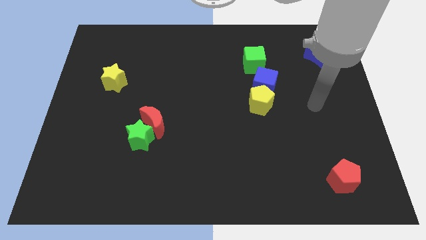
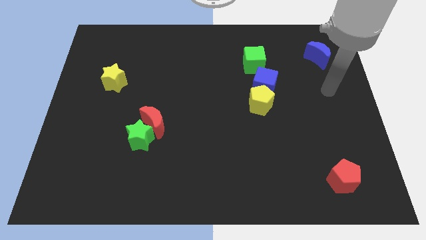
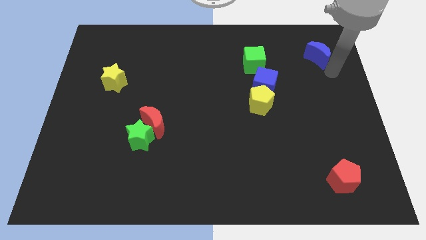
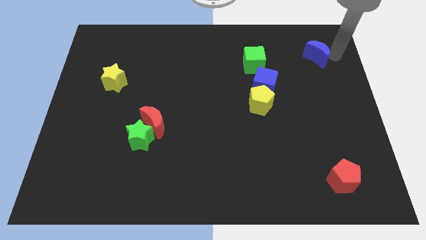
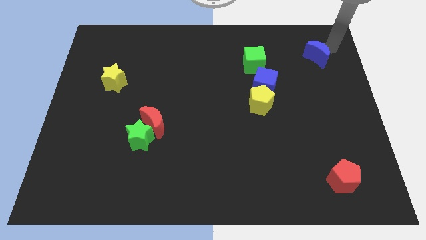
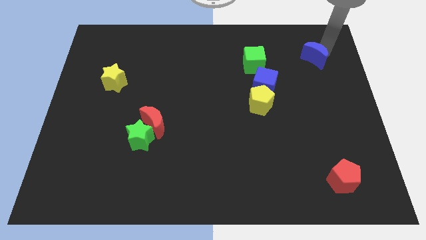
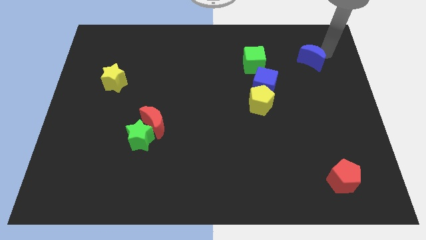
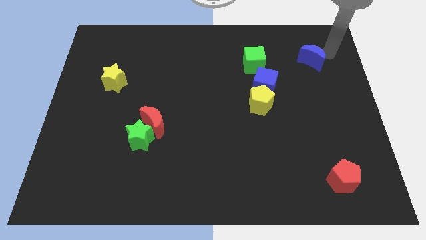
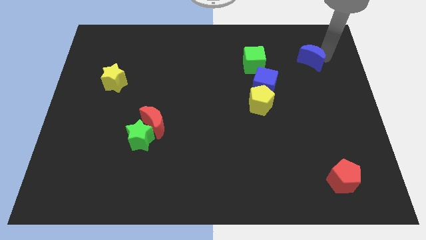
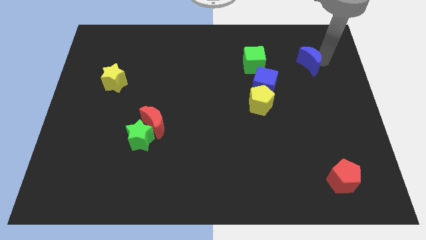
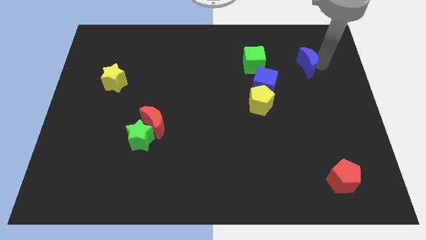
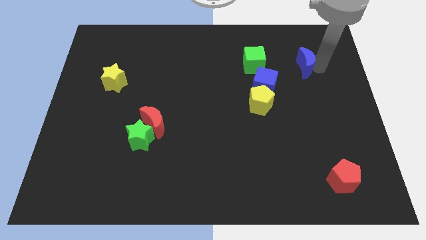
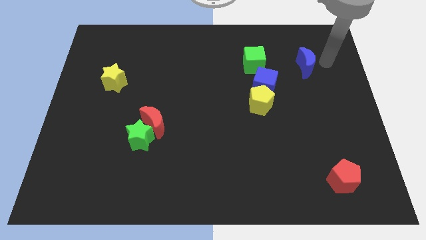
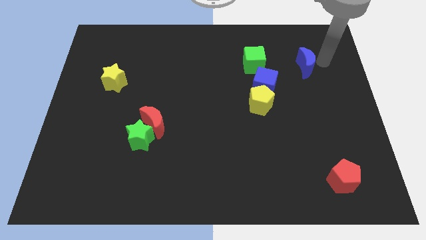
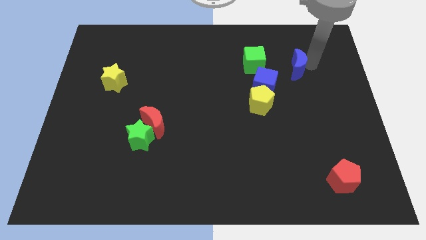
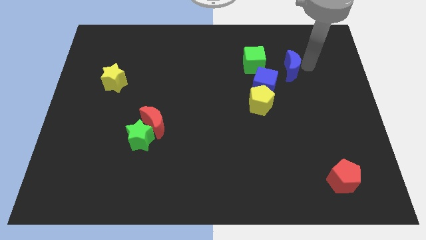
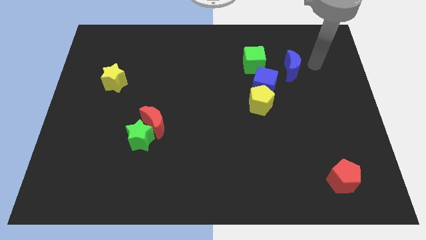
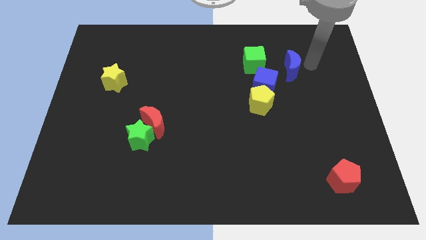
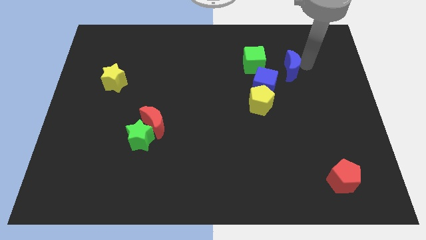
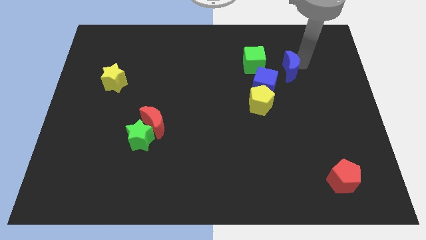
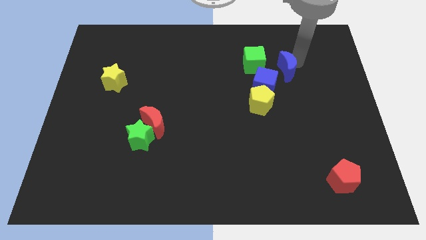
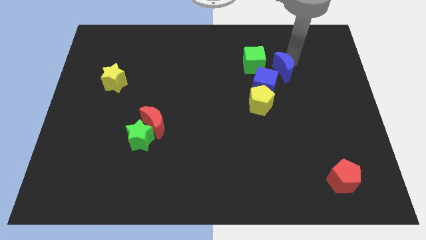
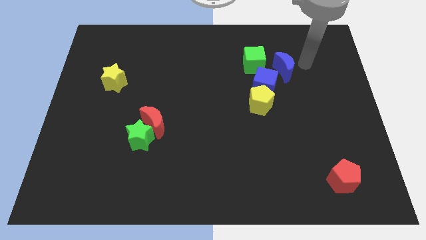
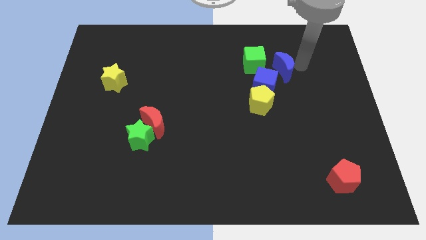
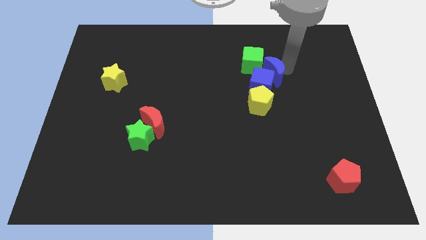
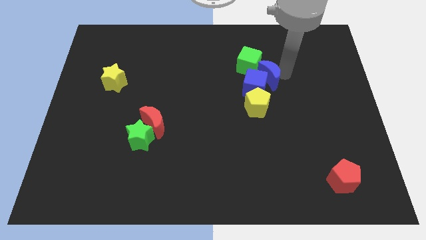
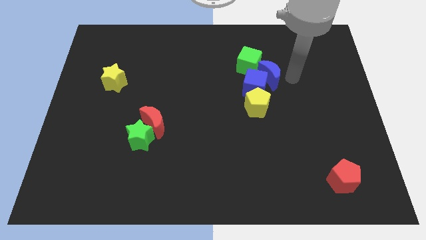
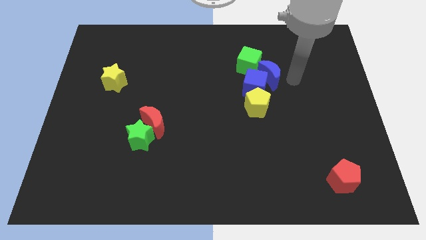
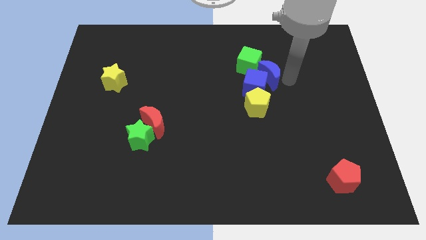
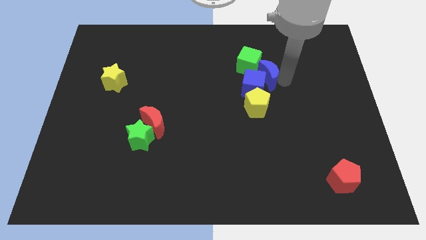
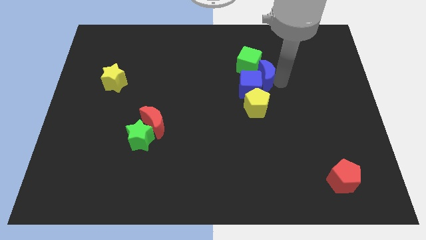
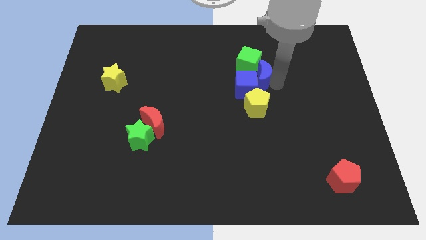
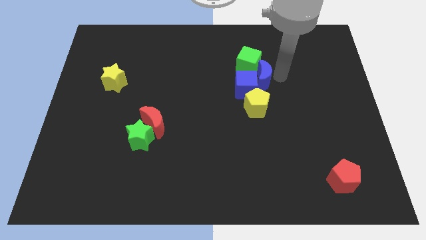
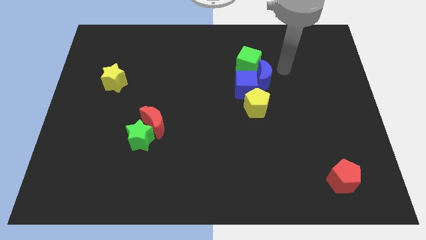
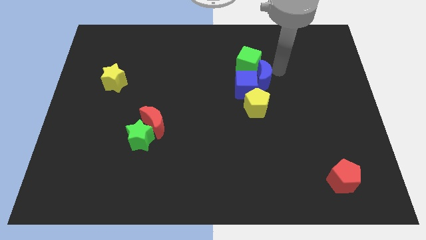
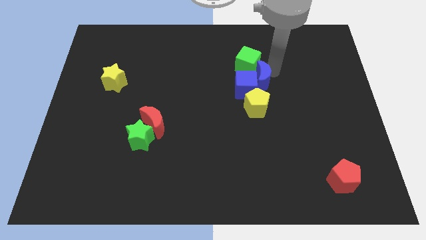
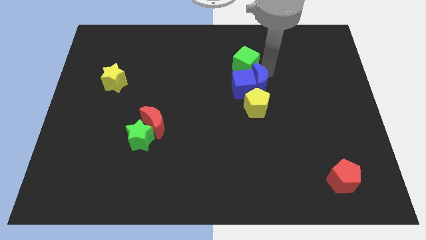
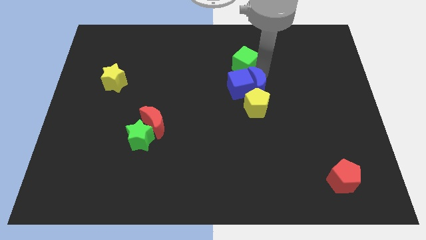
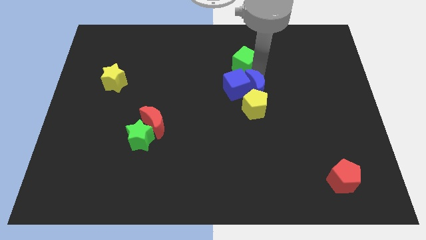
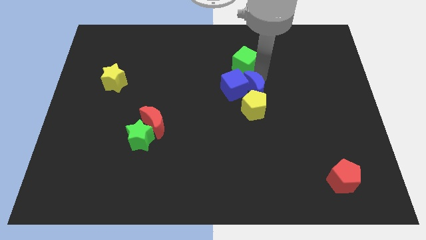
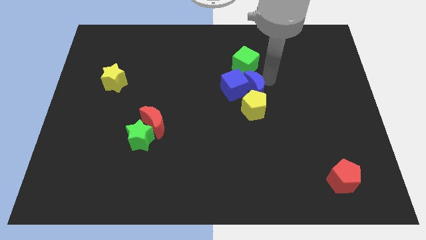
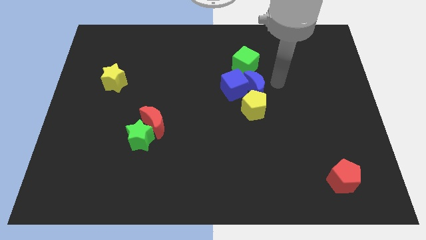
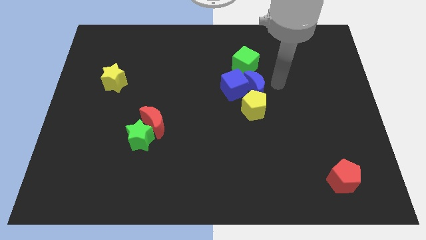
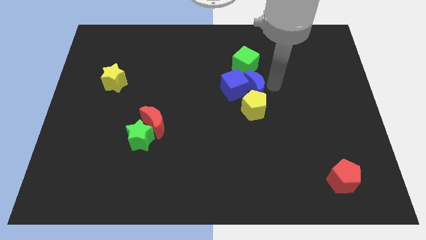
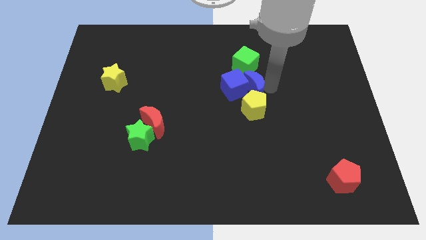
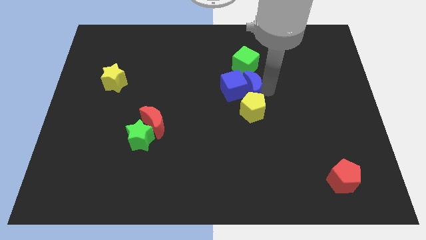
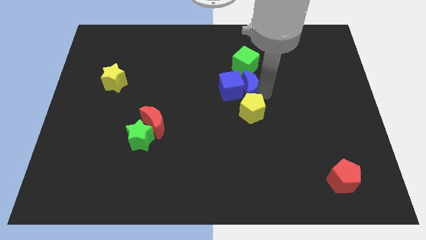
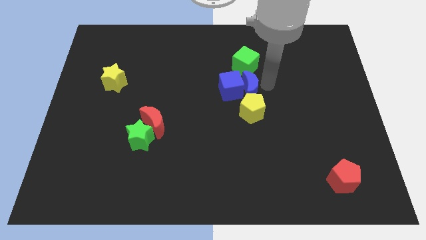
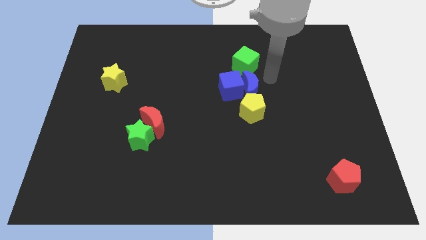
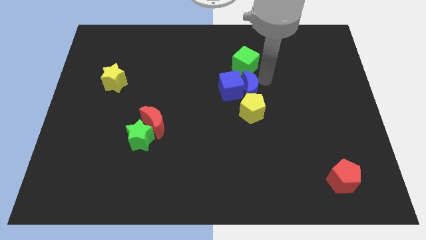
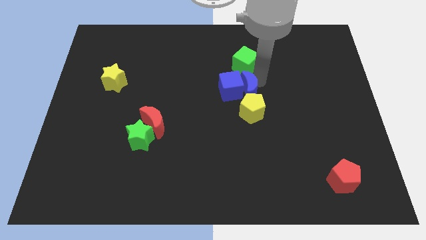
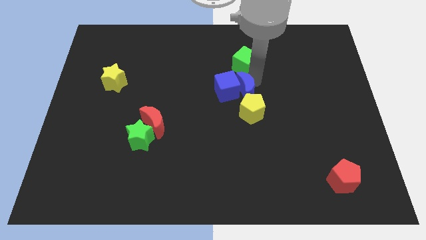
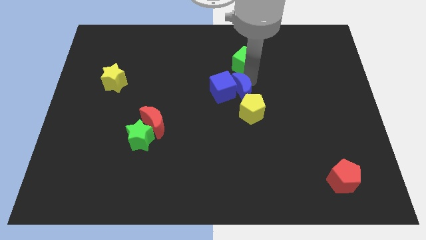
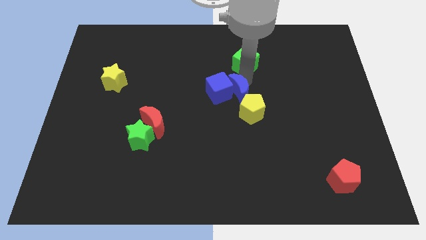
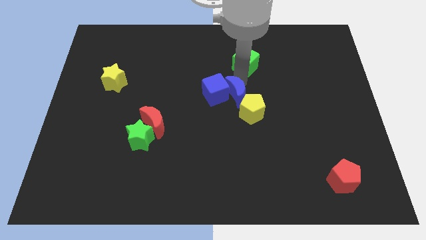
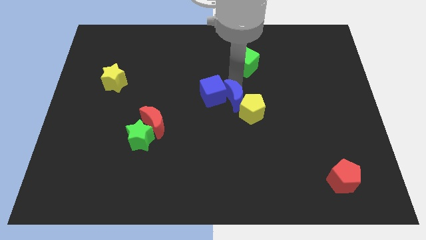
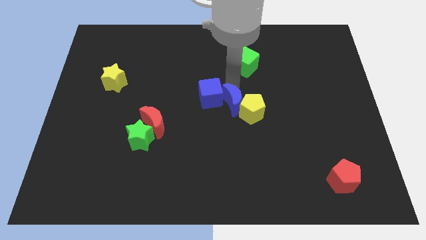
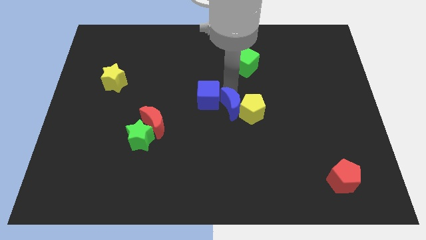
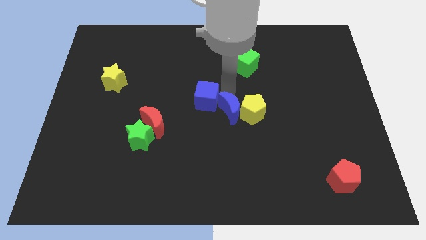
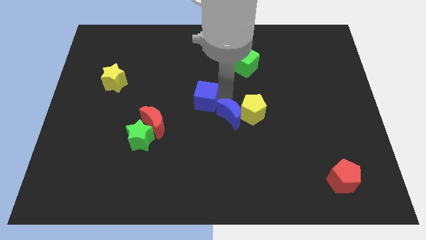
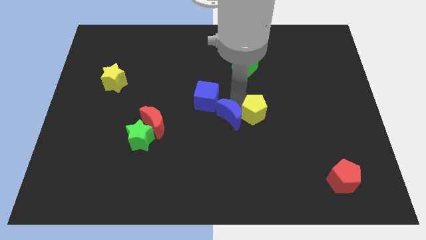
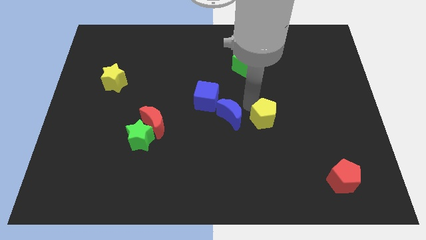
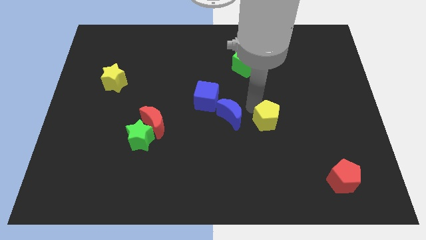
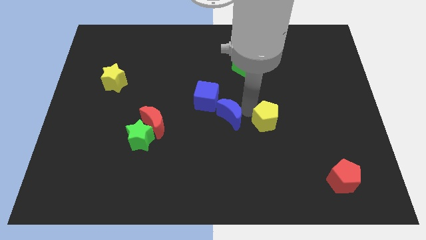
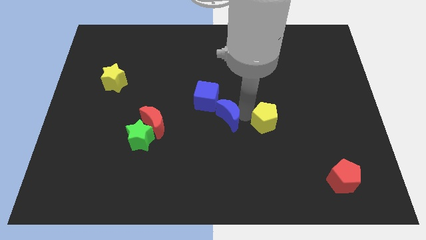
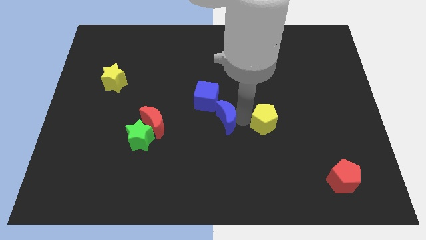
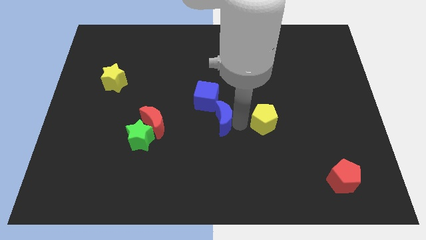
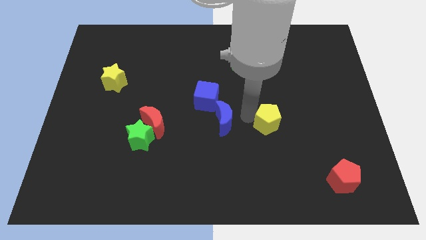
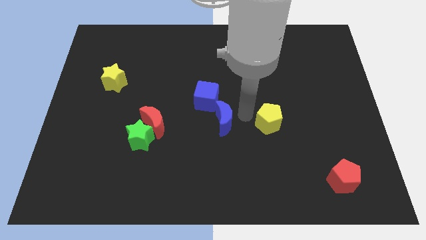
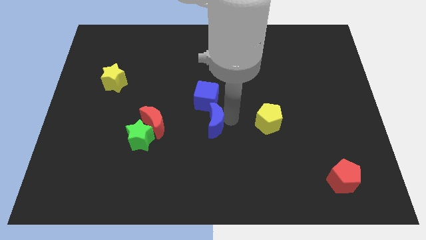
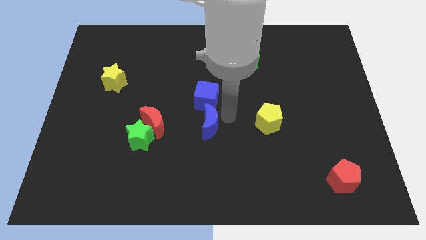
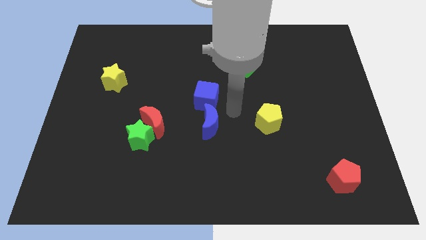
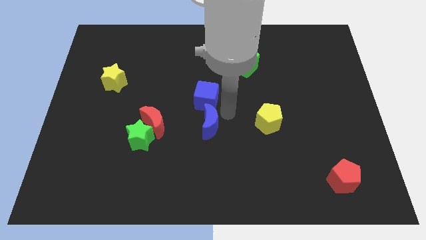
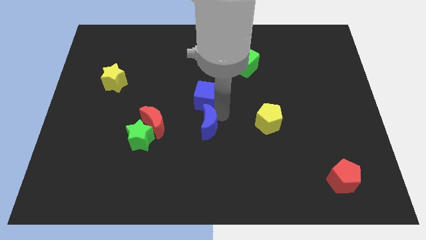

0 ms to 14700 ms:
put the blue moon just right of the green star
